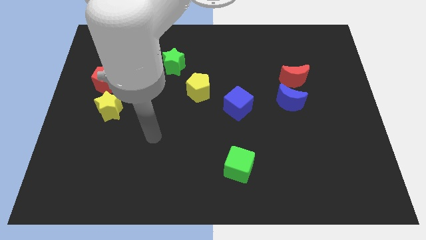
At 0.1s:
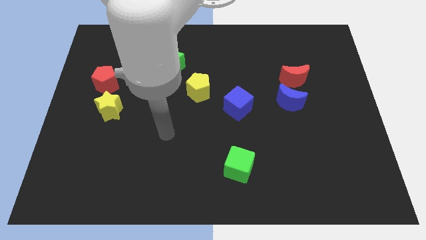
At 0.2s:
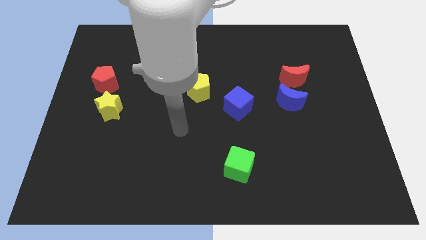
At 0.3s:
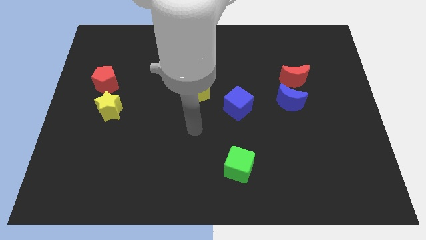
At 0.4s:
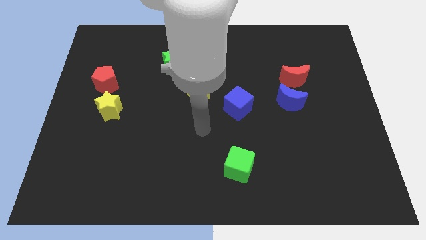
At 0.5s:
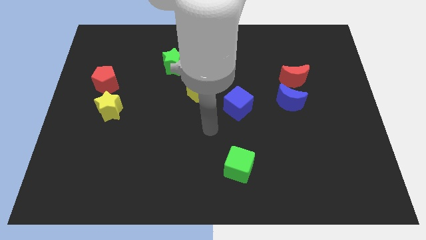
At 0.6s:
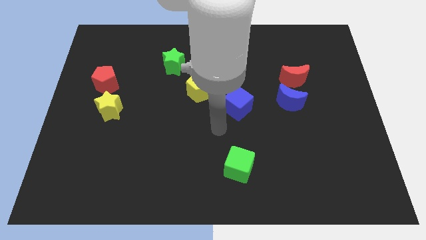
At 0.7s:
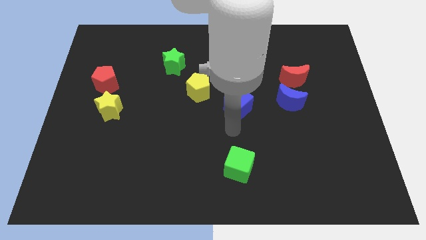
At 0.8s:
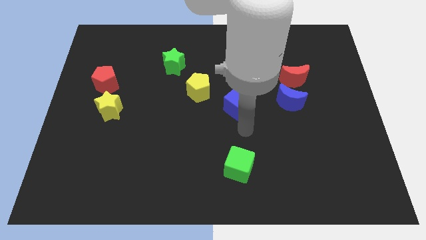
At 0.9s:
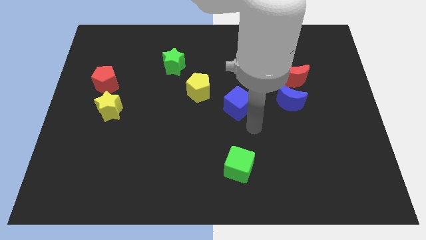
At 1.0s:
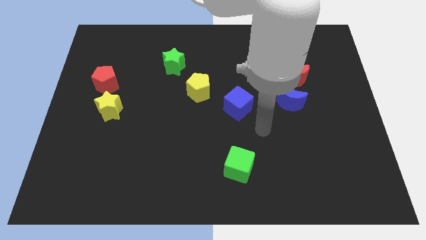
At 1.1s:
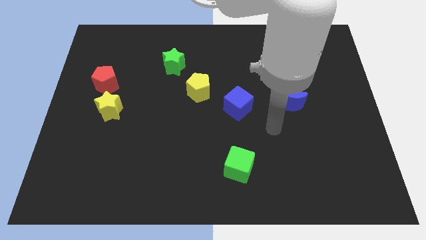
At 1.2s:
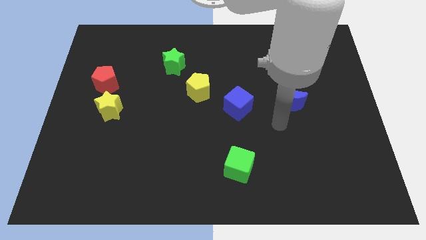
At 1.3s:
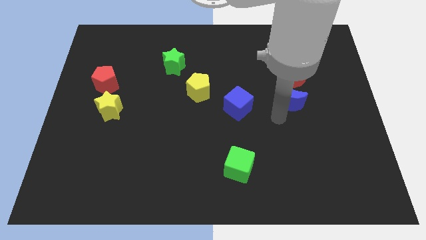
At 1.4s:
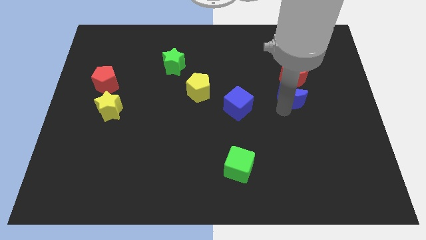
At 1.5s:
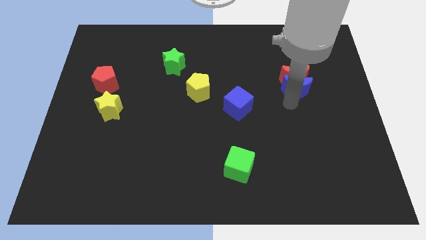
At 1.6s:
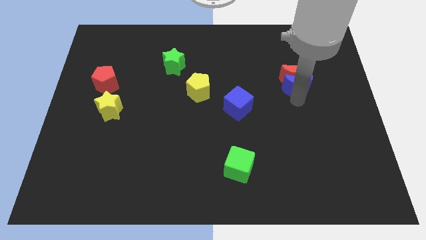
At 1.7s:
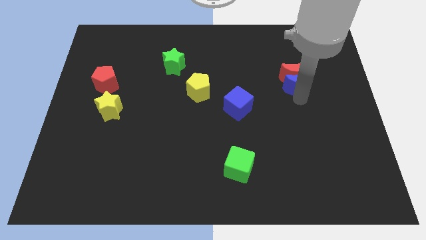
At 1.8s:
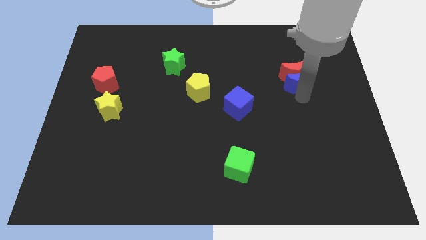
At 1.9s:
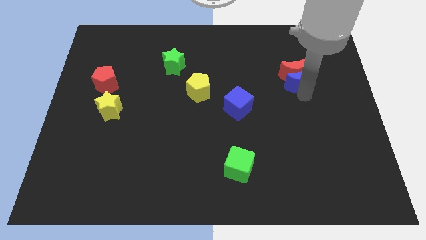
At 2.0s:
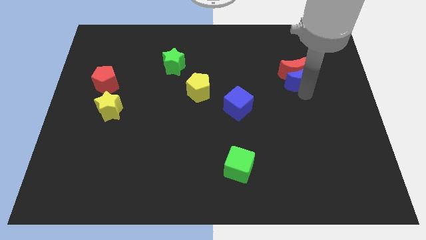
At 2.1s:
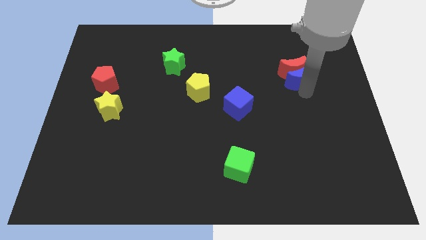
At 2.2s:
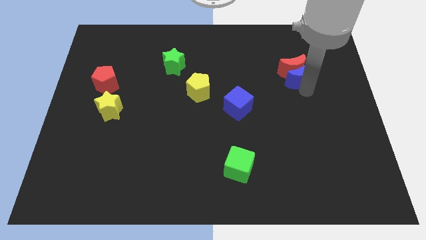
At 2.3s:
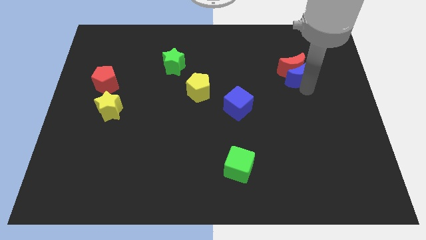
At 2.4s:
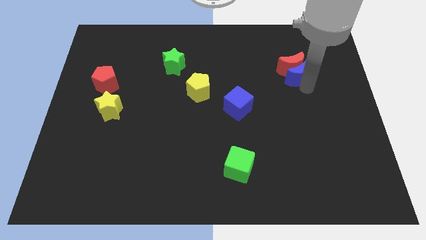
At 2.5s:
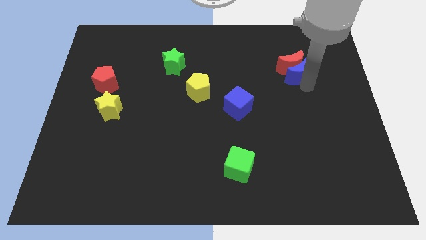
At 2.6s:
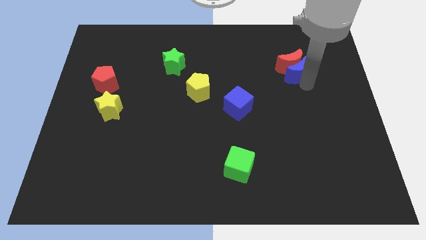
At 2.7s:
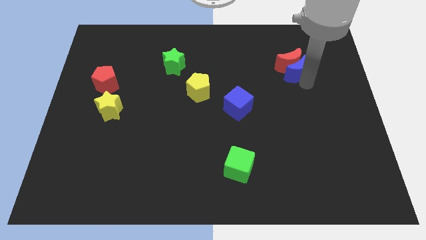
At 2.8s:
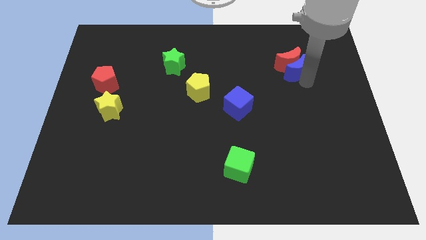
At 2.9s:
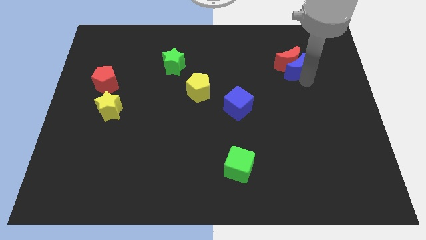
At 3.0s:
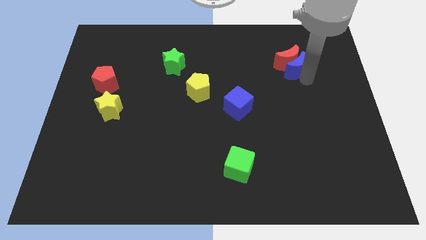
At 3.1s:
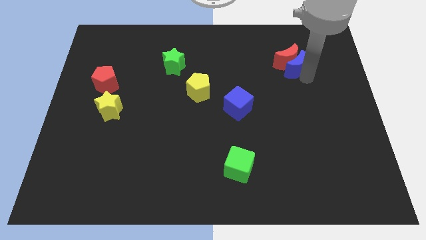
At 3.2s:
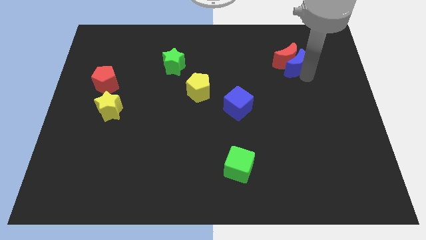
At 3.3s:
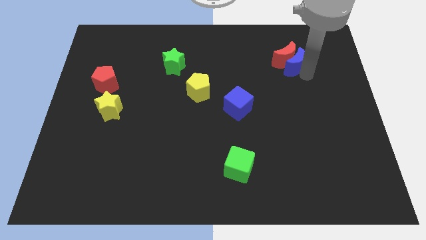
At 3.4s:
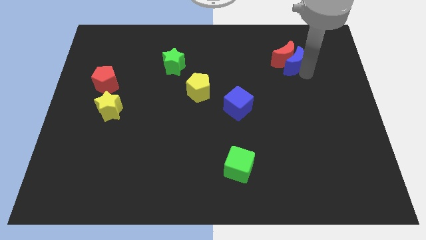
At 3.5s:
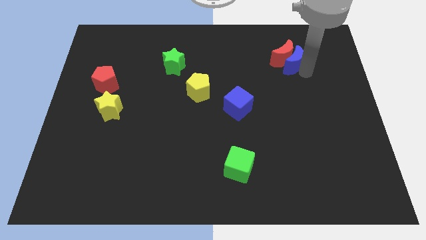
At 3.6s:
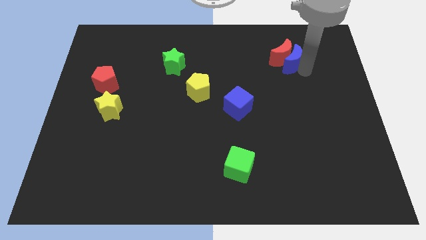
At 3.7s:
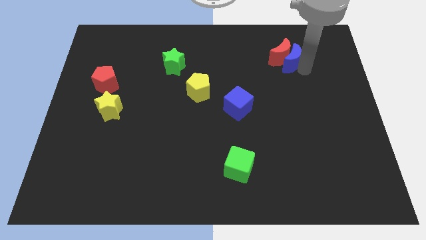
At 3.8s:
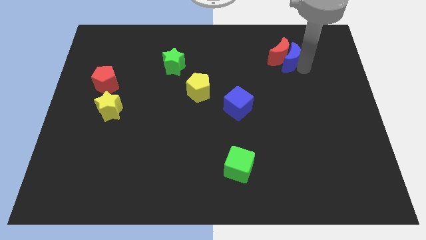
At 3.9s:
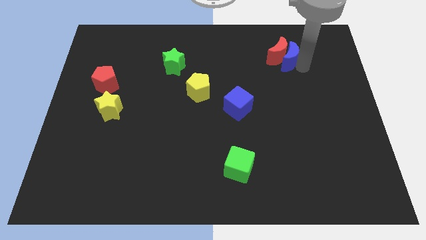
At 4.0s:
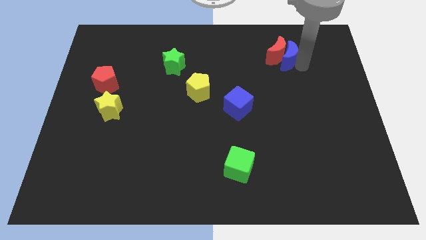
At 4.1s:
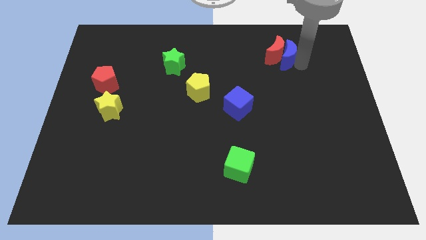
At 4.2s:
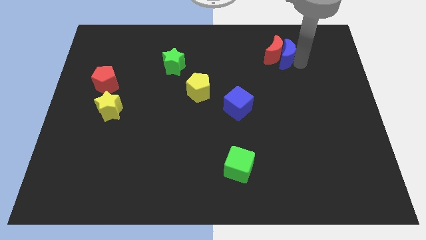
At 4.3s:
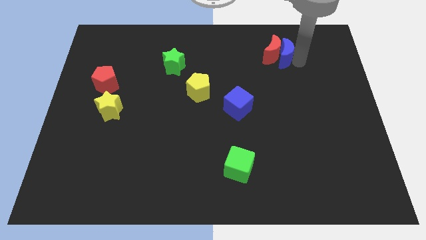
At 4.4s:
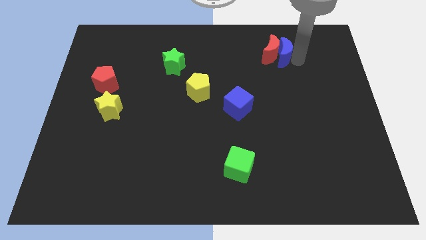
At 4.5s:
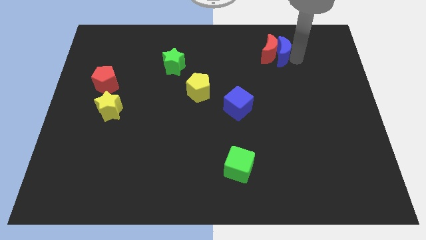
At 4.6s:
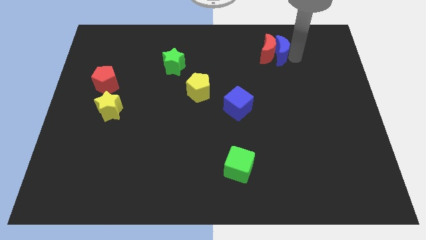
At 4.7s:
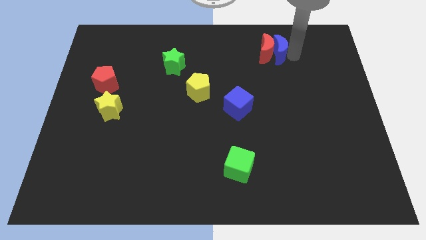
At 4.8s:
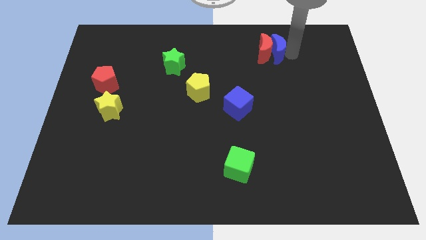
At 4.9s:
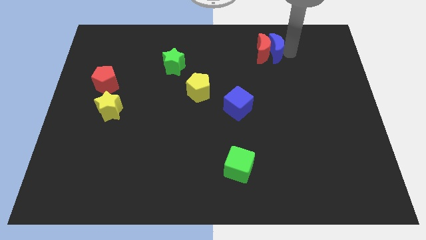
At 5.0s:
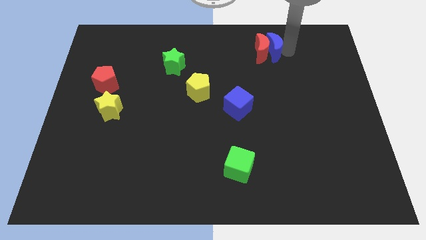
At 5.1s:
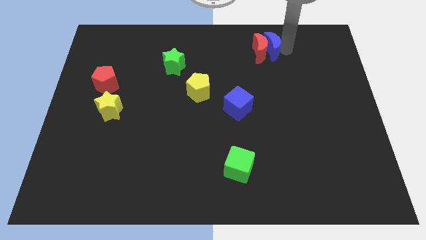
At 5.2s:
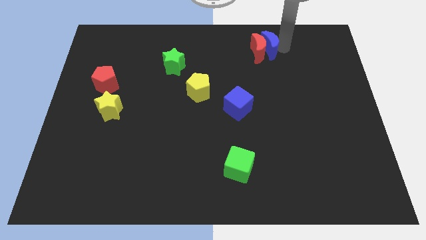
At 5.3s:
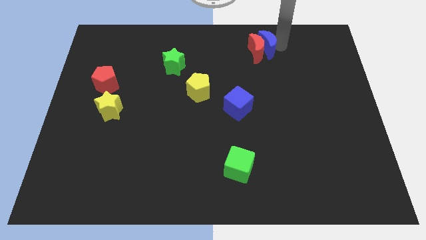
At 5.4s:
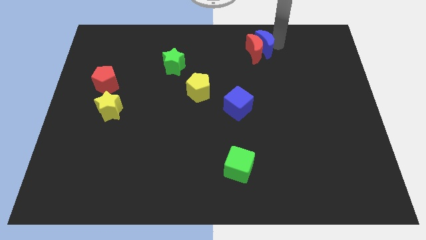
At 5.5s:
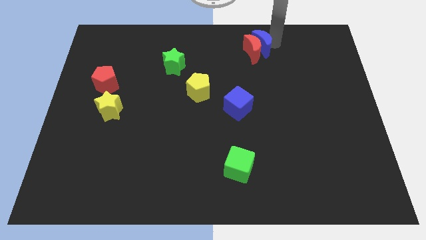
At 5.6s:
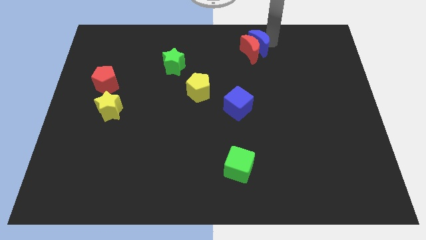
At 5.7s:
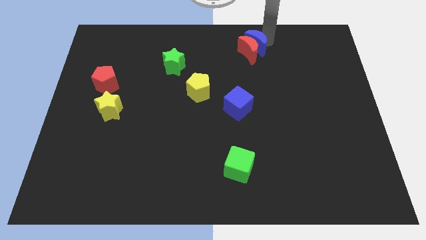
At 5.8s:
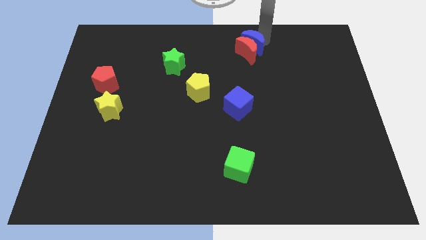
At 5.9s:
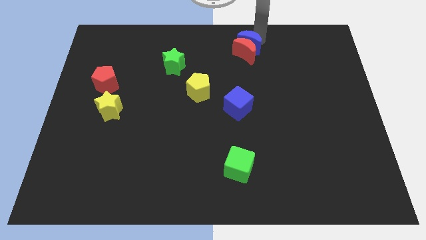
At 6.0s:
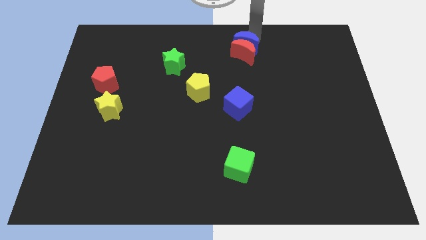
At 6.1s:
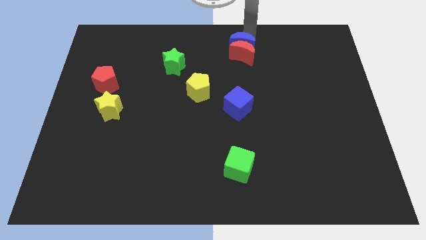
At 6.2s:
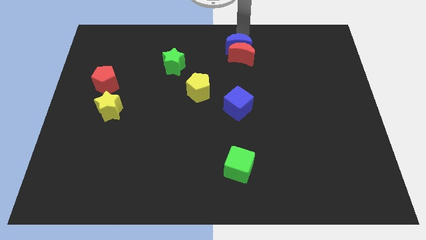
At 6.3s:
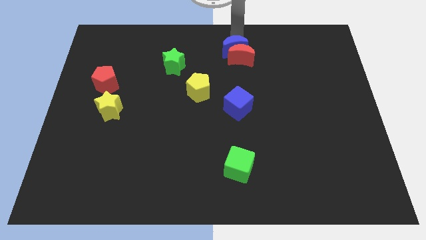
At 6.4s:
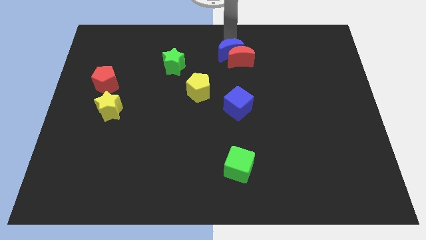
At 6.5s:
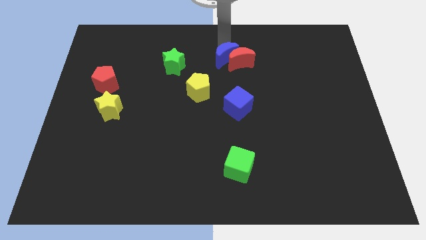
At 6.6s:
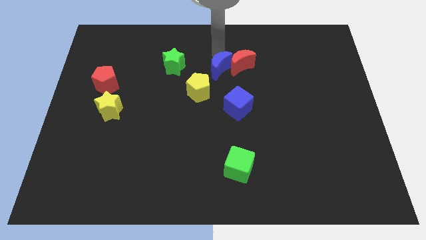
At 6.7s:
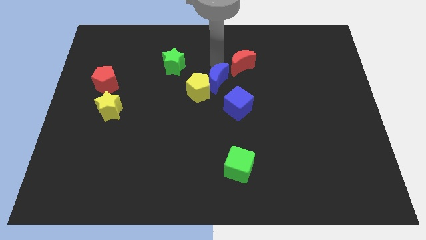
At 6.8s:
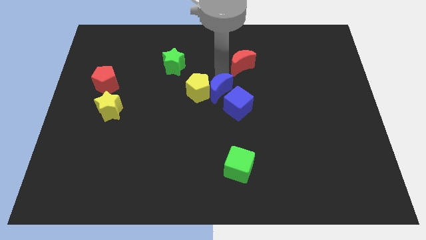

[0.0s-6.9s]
separate the red moon from the blue moon

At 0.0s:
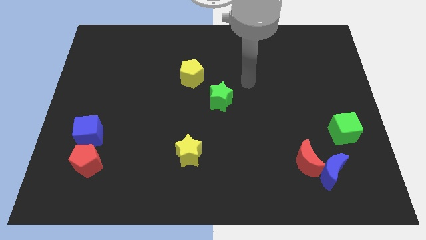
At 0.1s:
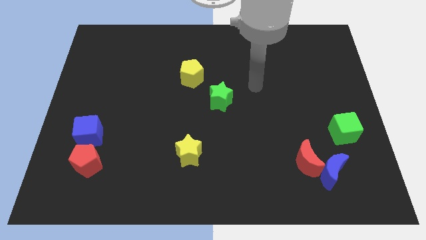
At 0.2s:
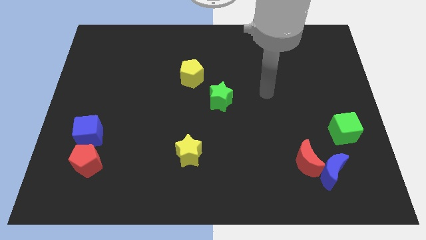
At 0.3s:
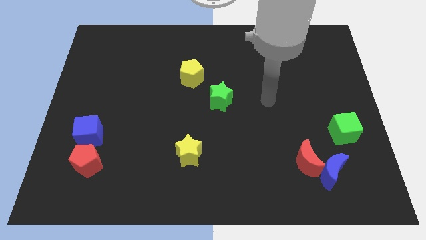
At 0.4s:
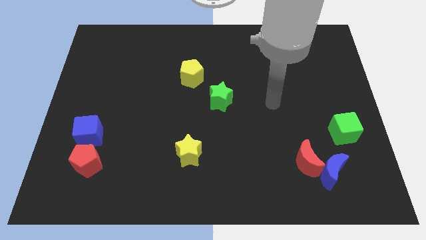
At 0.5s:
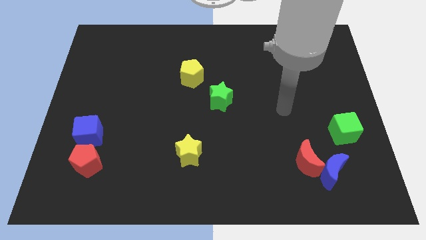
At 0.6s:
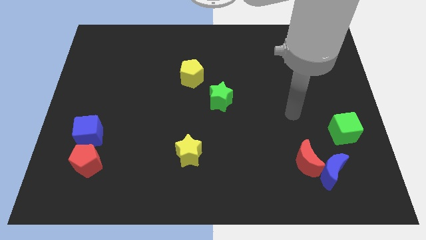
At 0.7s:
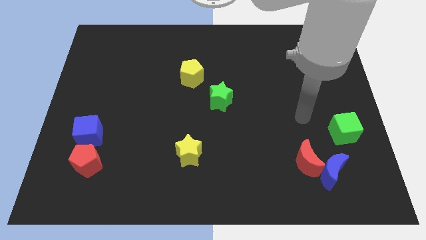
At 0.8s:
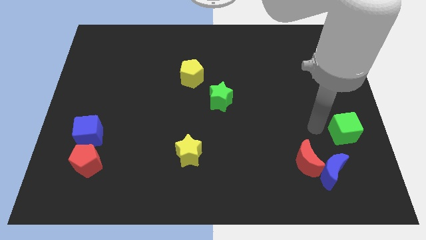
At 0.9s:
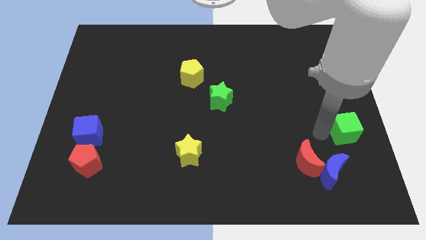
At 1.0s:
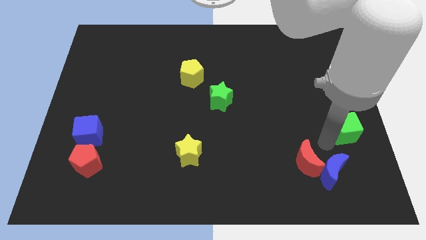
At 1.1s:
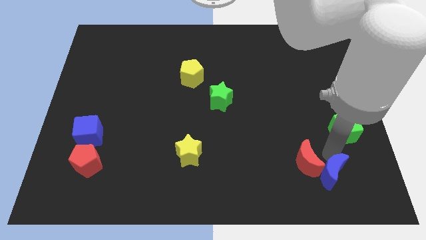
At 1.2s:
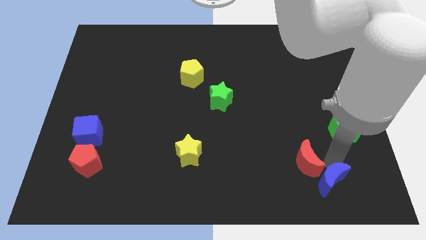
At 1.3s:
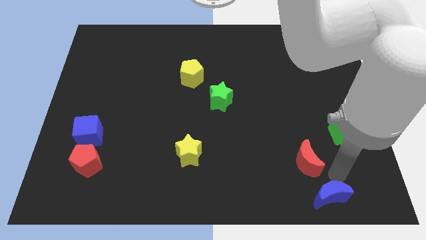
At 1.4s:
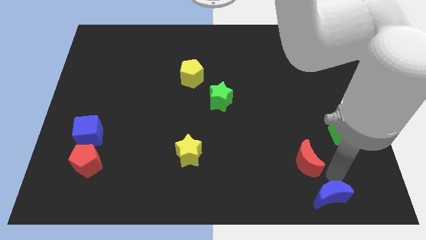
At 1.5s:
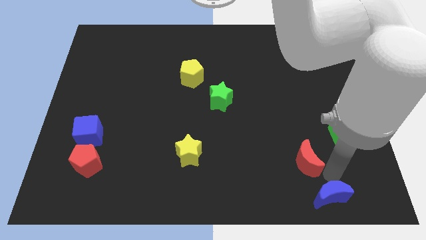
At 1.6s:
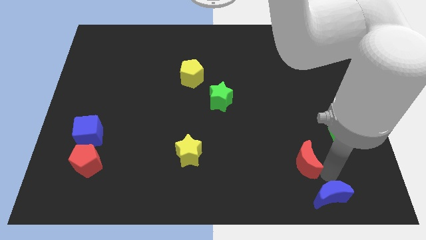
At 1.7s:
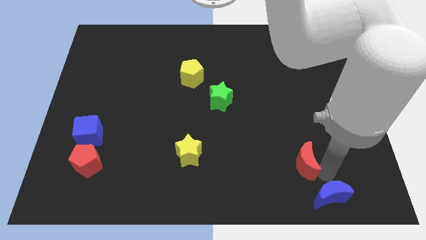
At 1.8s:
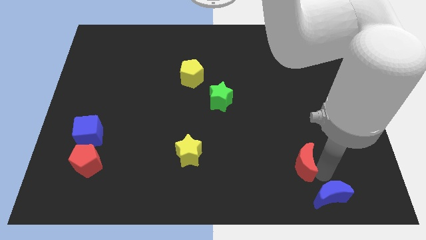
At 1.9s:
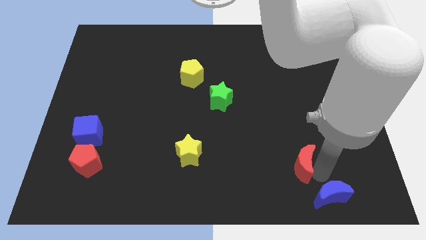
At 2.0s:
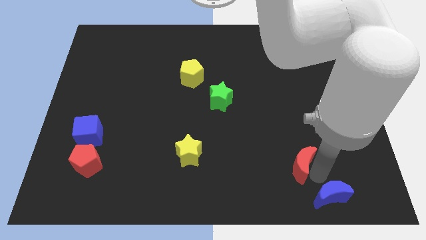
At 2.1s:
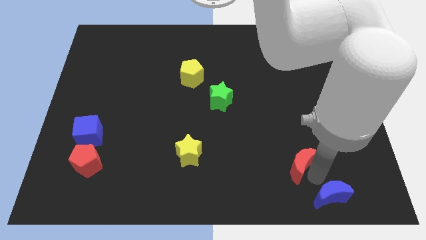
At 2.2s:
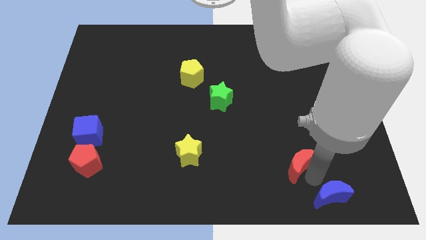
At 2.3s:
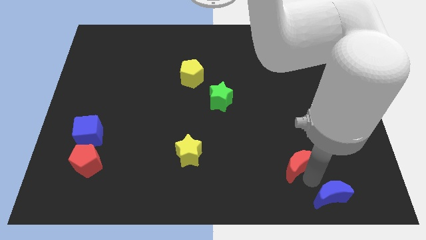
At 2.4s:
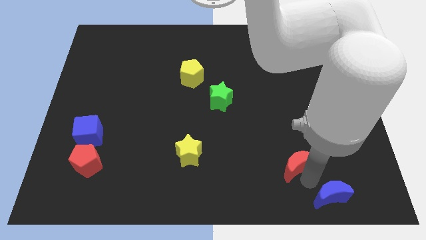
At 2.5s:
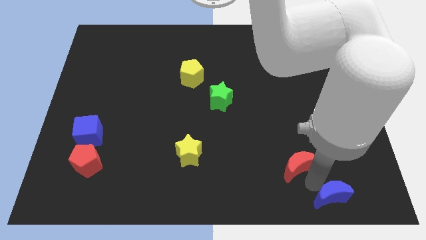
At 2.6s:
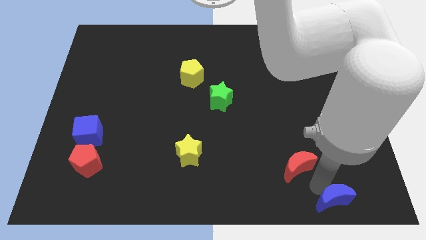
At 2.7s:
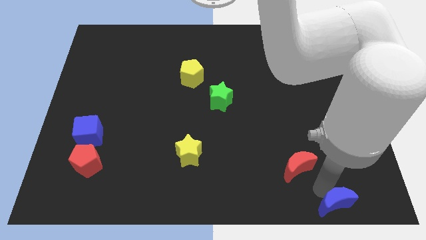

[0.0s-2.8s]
move the red moon away from the blue moon
